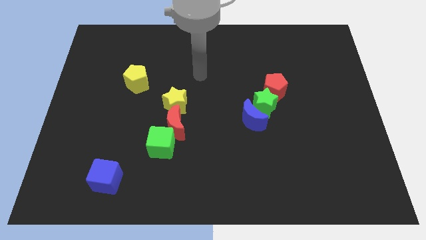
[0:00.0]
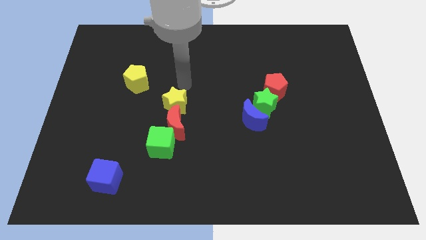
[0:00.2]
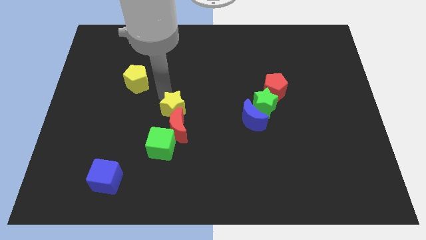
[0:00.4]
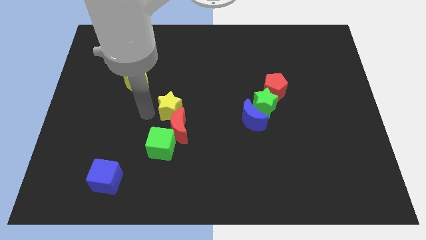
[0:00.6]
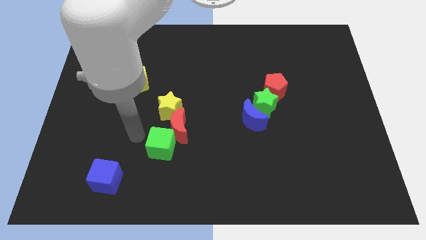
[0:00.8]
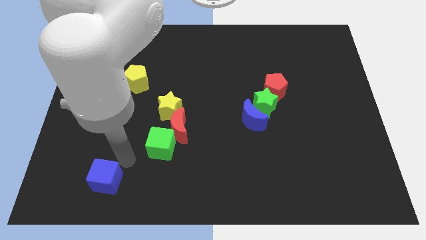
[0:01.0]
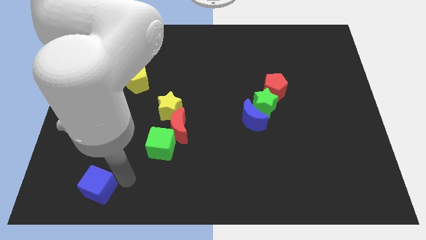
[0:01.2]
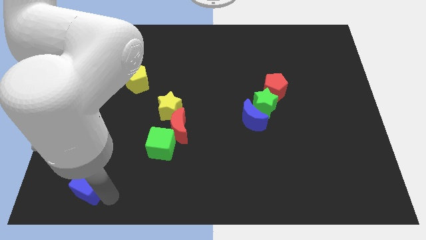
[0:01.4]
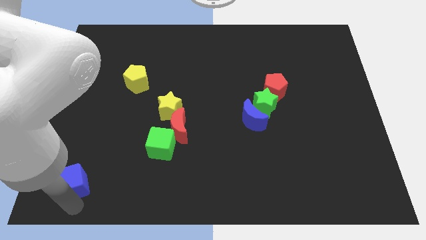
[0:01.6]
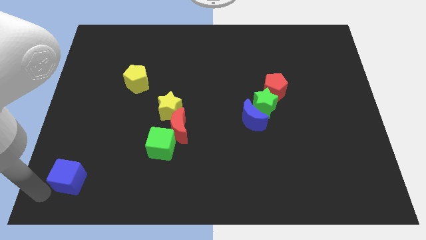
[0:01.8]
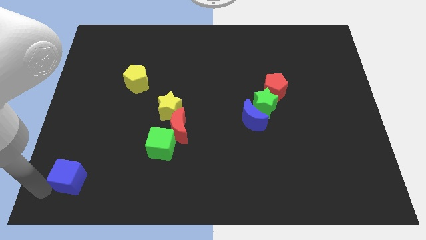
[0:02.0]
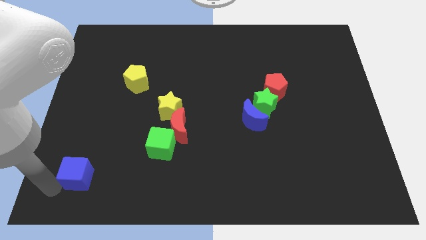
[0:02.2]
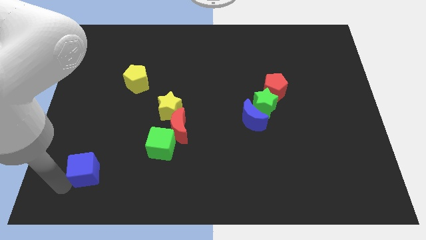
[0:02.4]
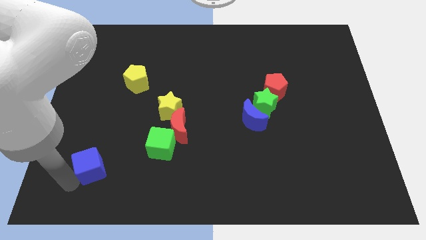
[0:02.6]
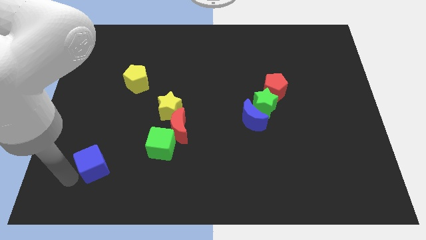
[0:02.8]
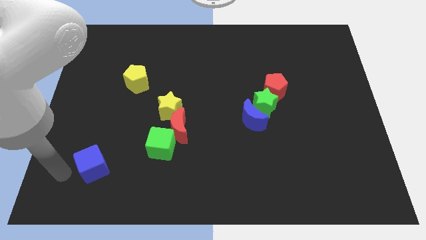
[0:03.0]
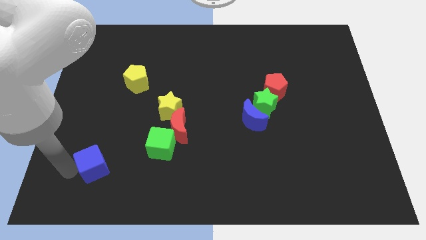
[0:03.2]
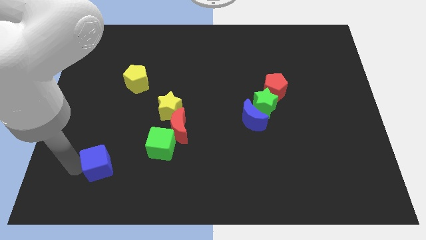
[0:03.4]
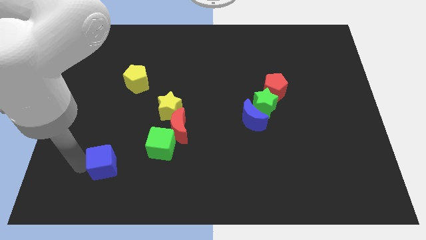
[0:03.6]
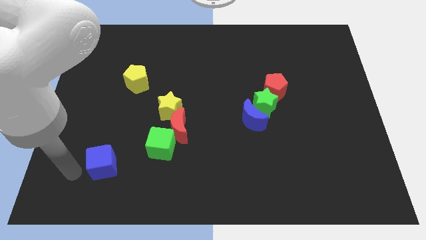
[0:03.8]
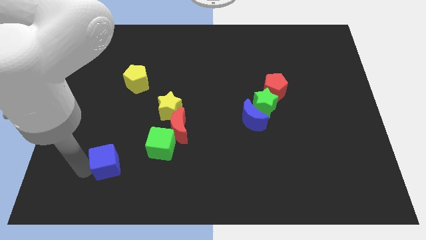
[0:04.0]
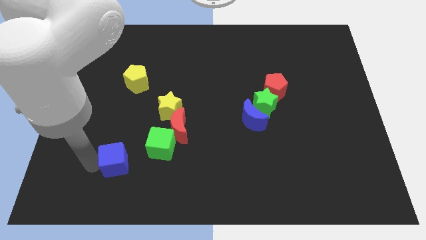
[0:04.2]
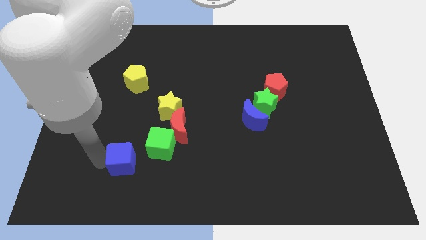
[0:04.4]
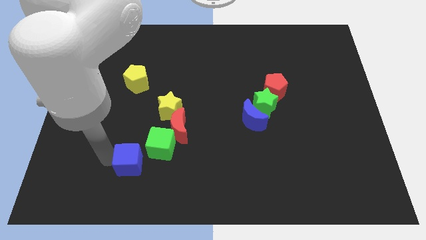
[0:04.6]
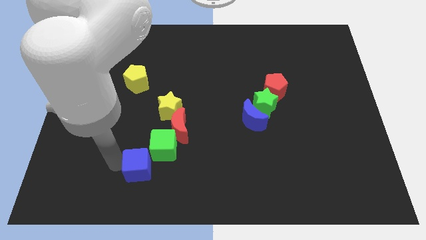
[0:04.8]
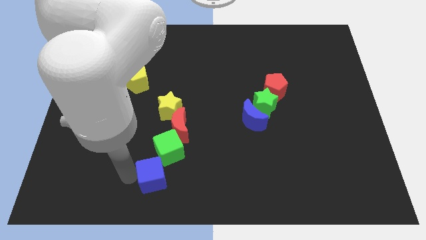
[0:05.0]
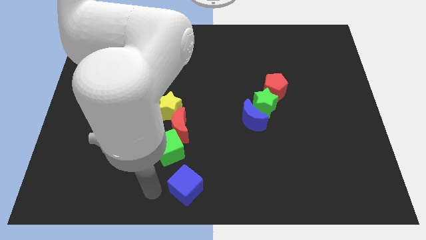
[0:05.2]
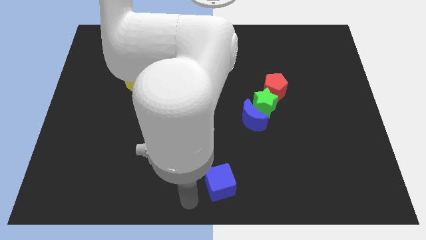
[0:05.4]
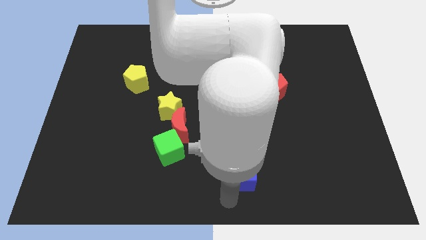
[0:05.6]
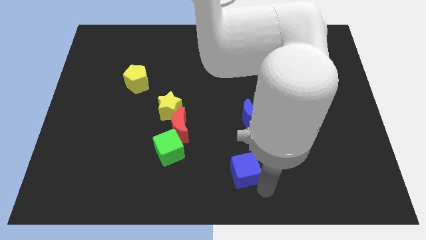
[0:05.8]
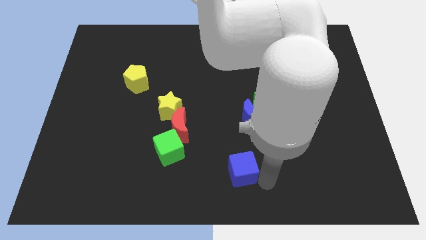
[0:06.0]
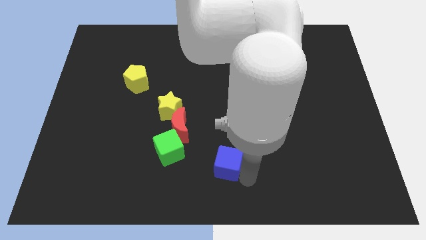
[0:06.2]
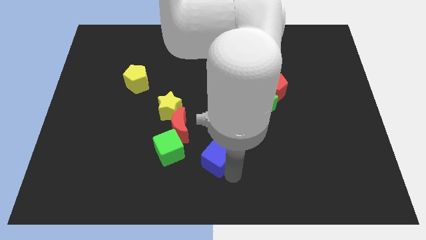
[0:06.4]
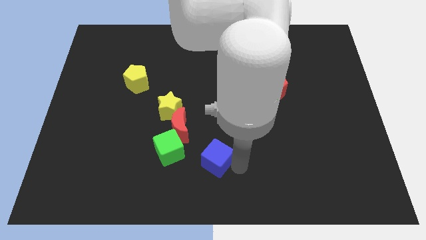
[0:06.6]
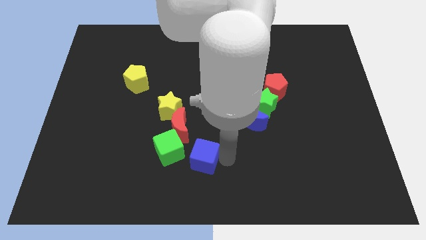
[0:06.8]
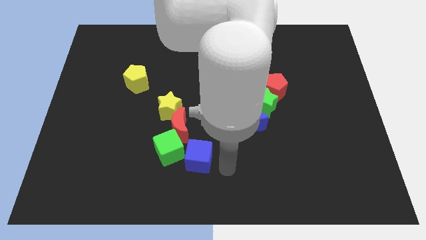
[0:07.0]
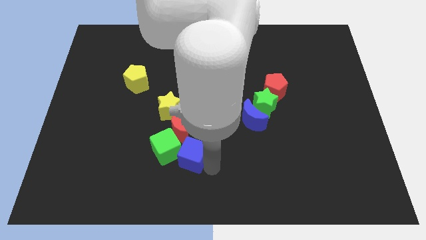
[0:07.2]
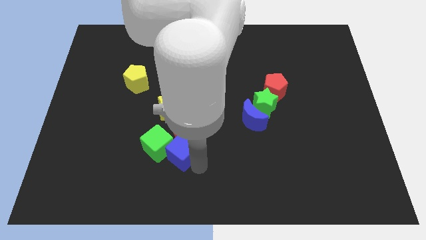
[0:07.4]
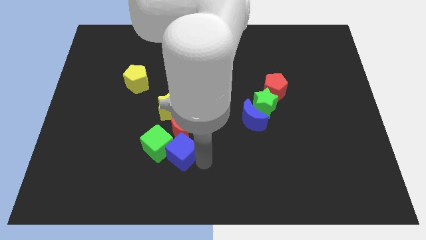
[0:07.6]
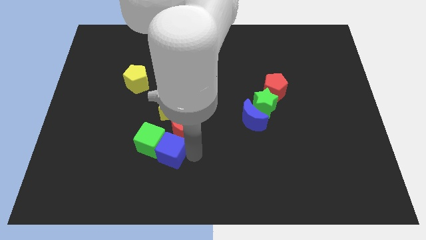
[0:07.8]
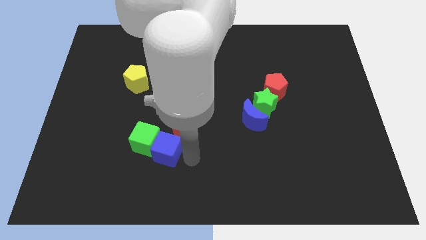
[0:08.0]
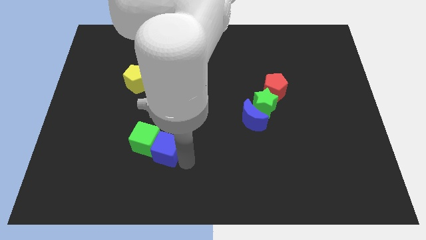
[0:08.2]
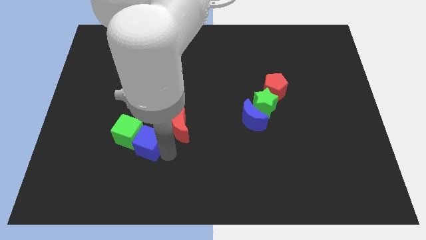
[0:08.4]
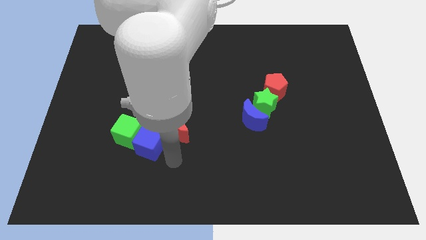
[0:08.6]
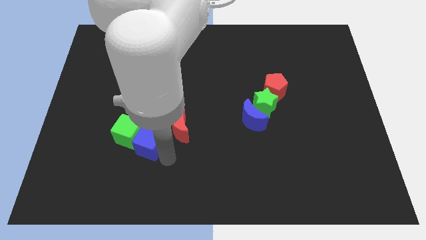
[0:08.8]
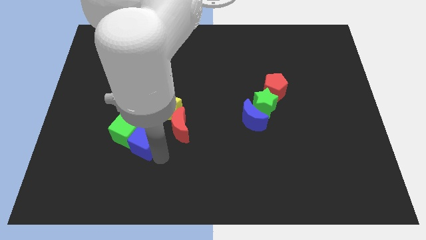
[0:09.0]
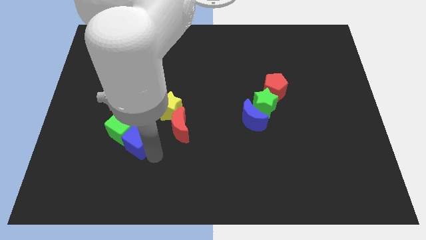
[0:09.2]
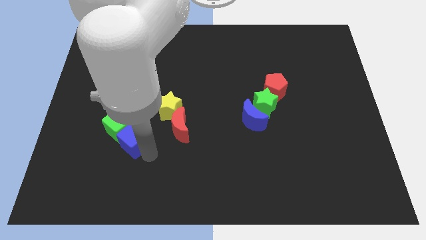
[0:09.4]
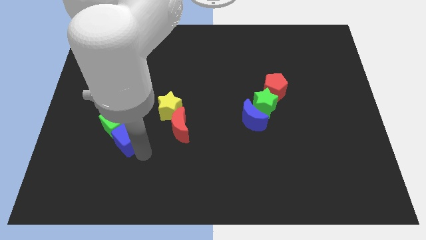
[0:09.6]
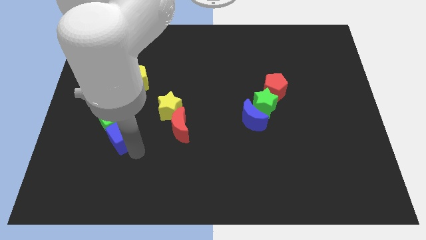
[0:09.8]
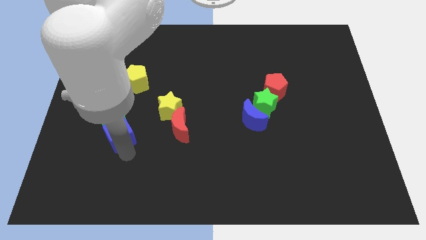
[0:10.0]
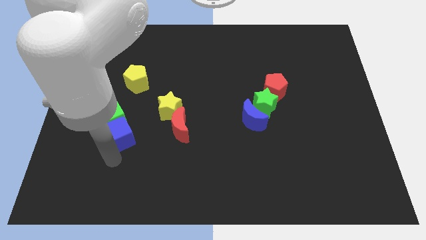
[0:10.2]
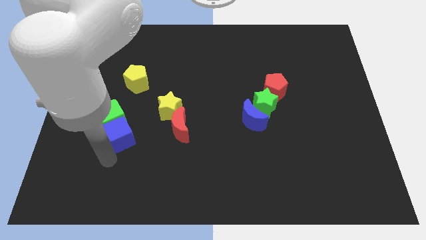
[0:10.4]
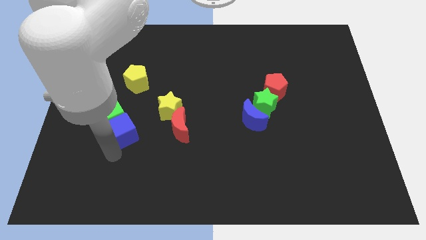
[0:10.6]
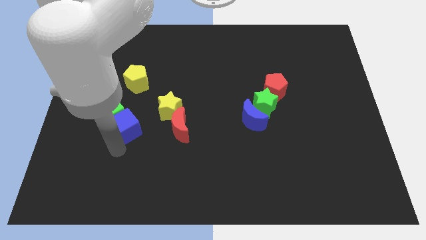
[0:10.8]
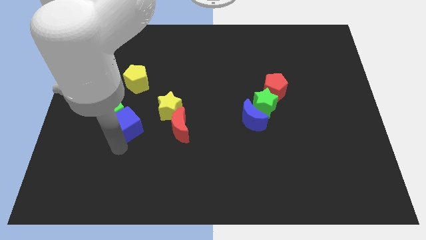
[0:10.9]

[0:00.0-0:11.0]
push the blue cube left of the yellow star

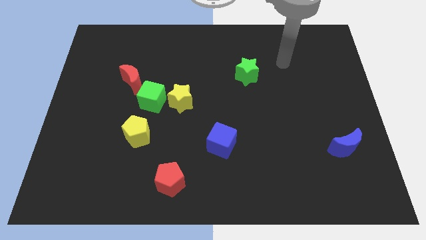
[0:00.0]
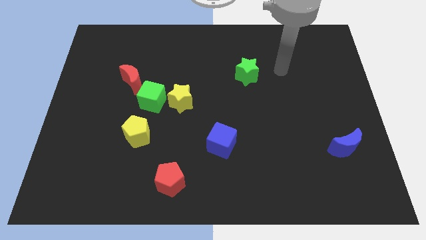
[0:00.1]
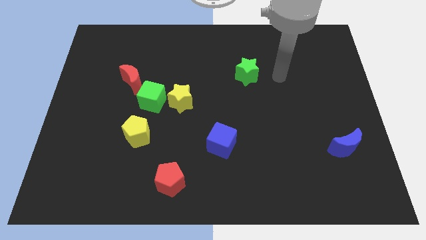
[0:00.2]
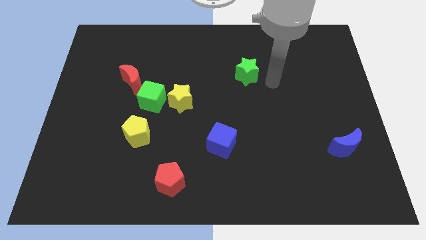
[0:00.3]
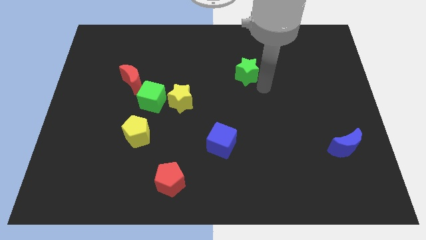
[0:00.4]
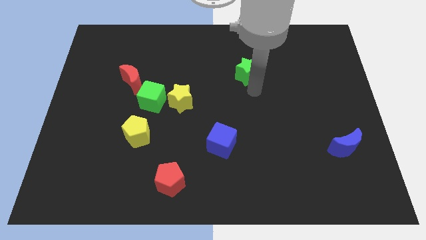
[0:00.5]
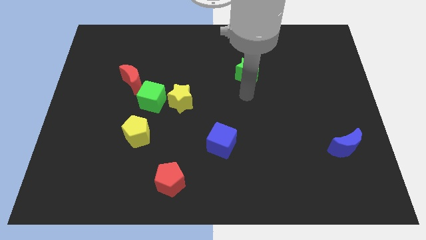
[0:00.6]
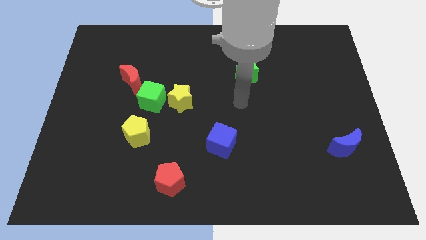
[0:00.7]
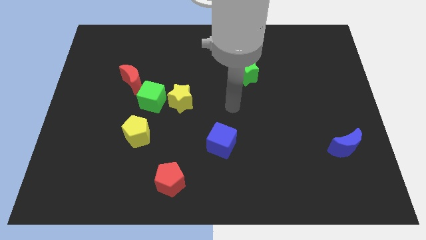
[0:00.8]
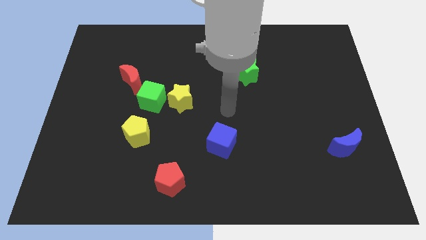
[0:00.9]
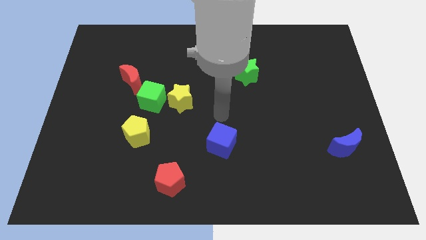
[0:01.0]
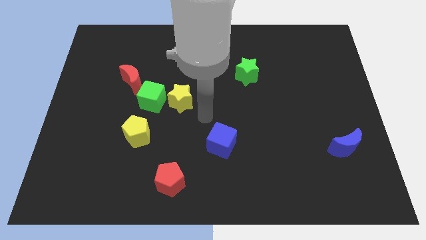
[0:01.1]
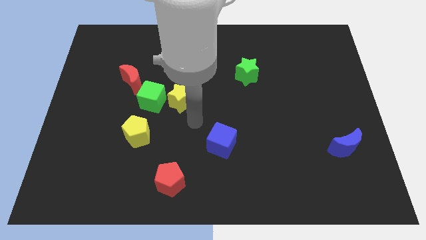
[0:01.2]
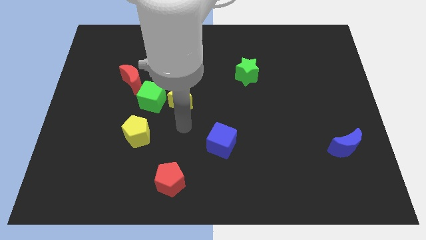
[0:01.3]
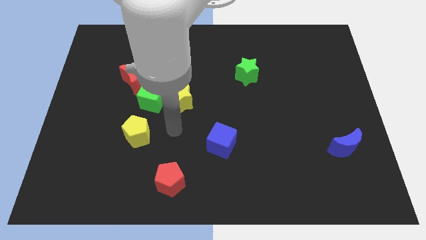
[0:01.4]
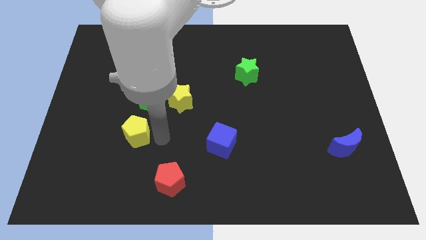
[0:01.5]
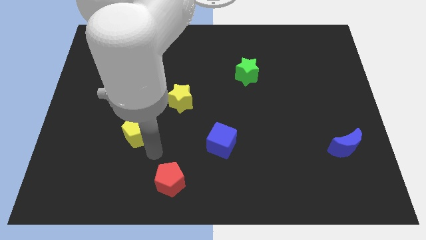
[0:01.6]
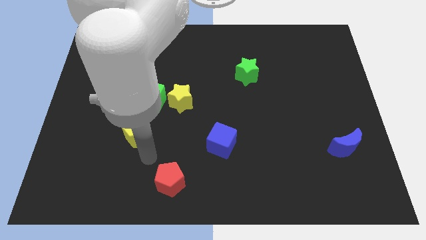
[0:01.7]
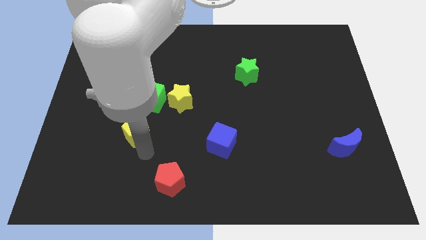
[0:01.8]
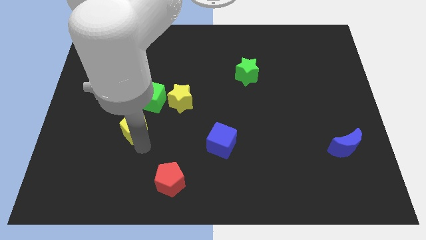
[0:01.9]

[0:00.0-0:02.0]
push the yellow pentagon to the bottom side of the red moon

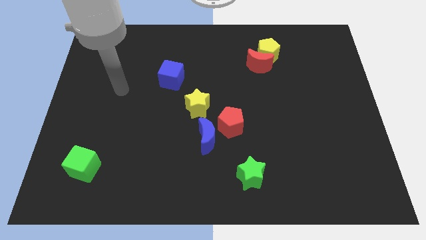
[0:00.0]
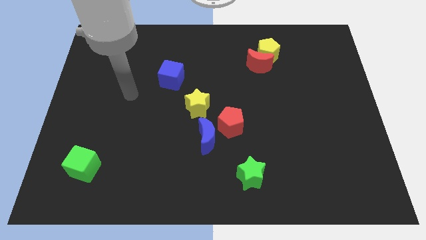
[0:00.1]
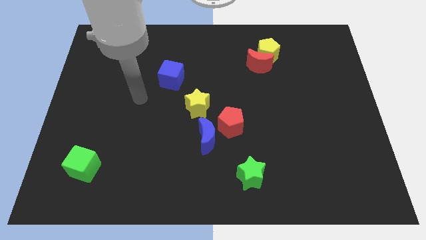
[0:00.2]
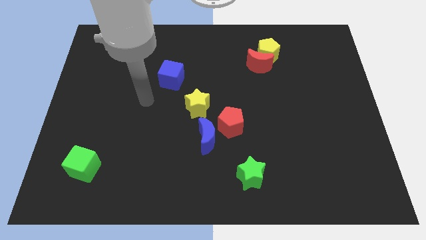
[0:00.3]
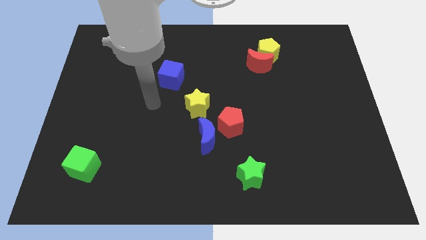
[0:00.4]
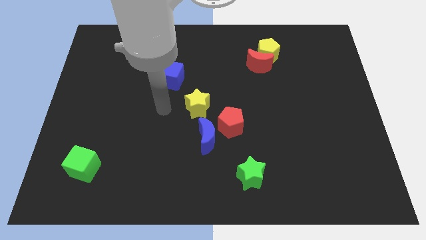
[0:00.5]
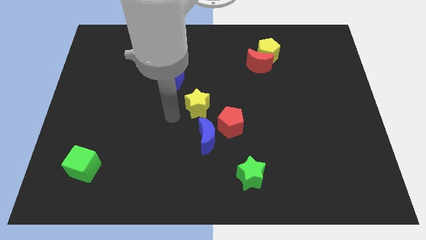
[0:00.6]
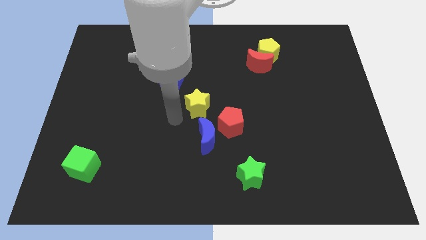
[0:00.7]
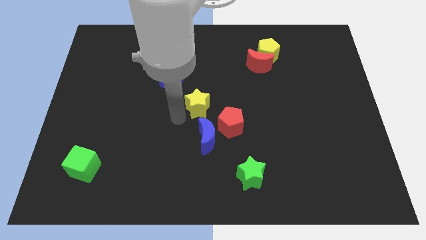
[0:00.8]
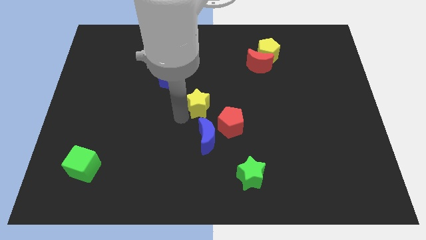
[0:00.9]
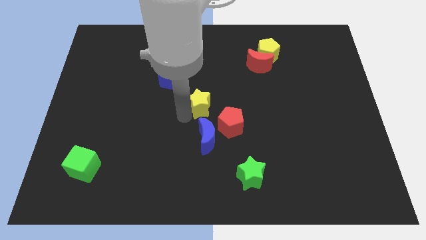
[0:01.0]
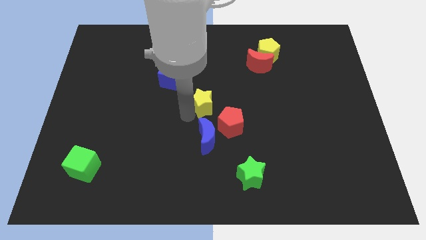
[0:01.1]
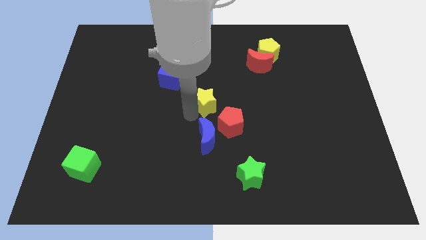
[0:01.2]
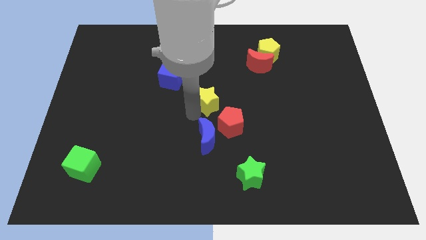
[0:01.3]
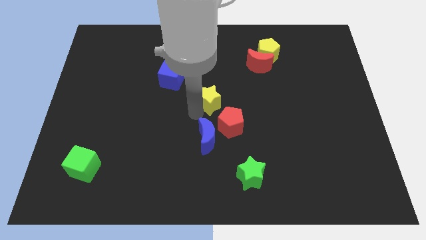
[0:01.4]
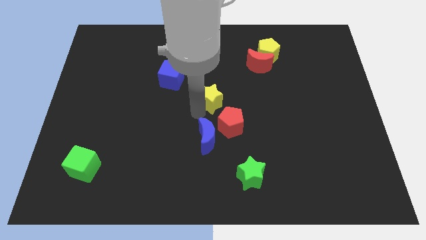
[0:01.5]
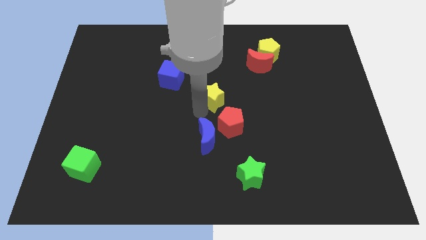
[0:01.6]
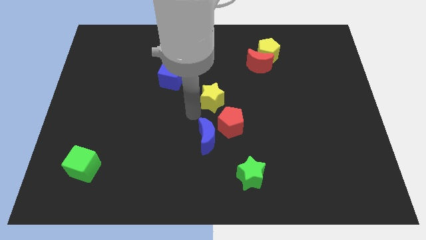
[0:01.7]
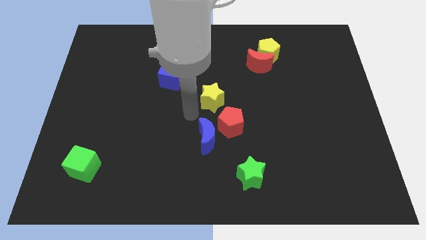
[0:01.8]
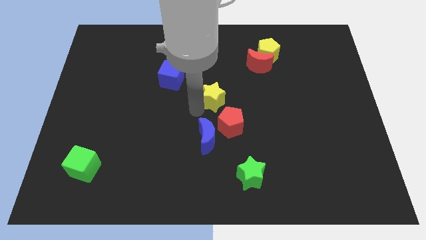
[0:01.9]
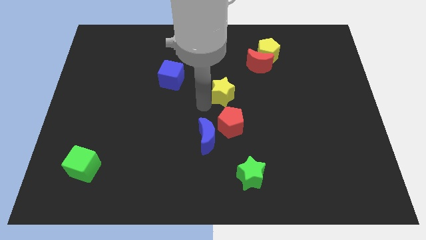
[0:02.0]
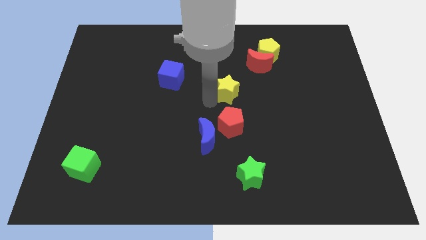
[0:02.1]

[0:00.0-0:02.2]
move the yellow star diagonally down and to the left of the red moon
